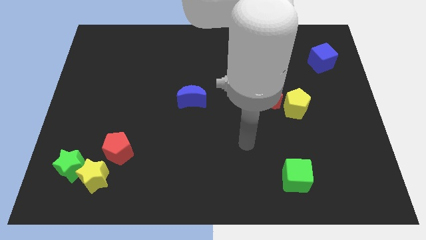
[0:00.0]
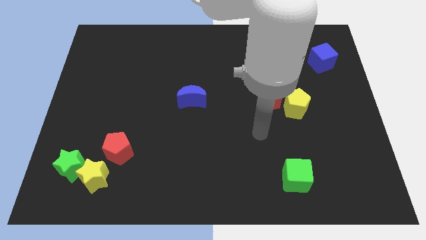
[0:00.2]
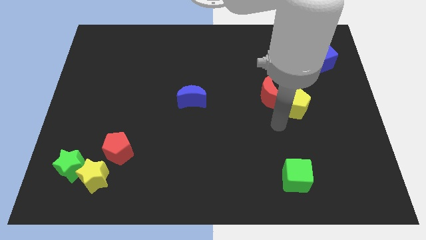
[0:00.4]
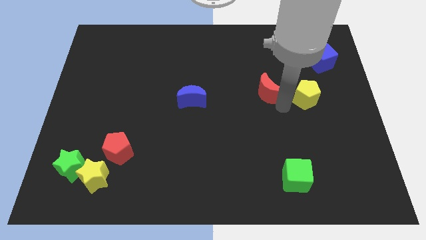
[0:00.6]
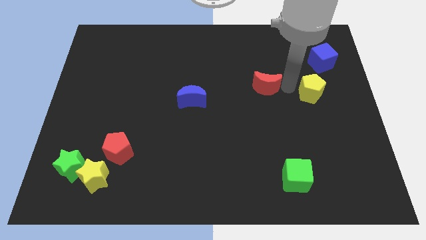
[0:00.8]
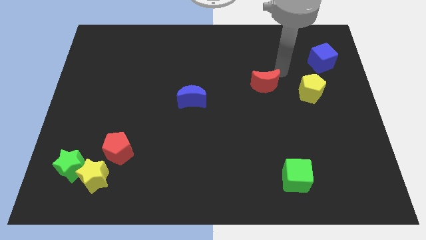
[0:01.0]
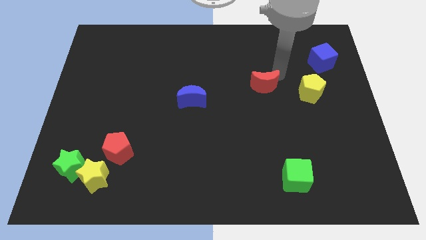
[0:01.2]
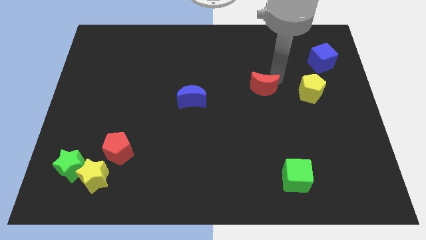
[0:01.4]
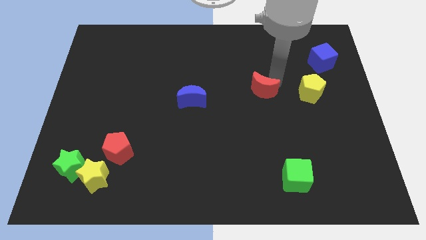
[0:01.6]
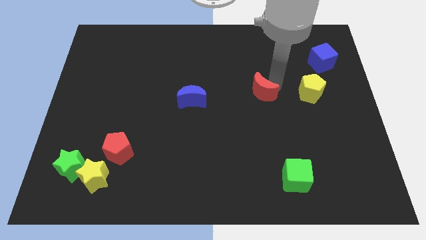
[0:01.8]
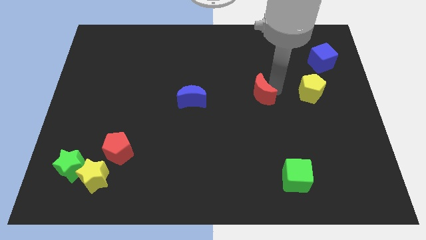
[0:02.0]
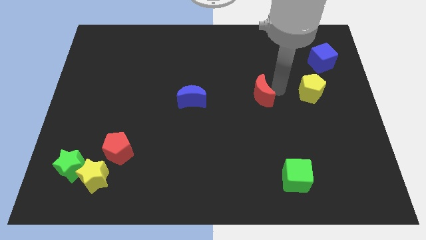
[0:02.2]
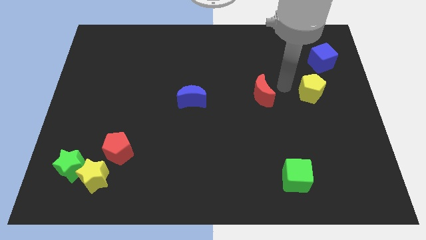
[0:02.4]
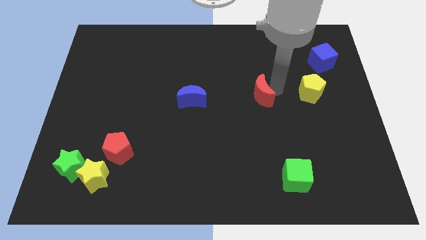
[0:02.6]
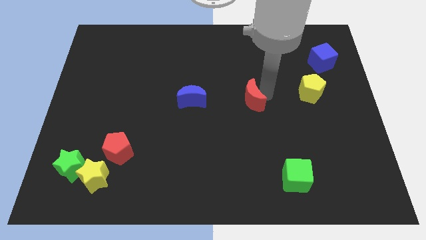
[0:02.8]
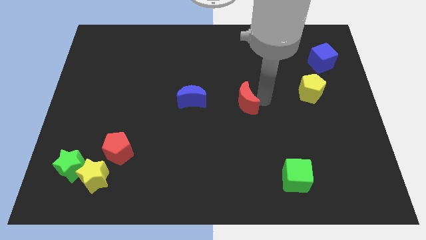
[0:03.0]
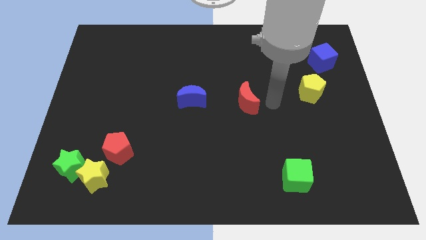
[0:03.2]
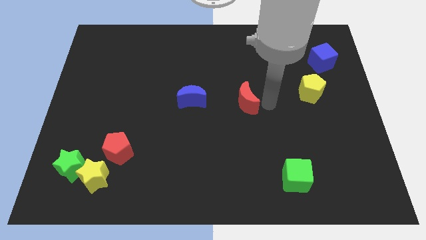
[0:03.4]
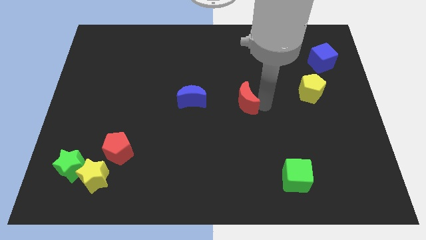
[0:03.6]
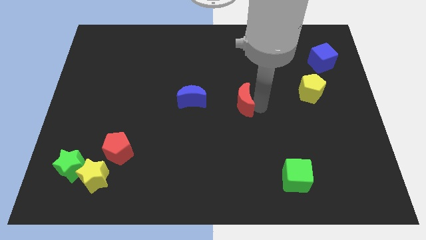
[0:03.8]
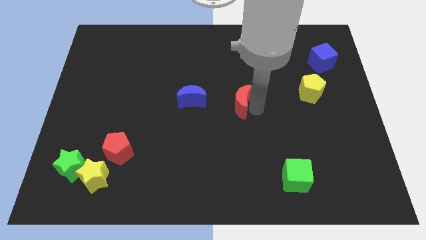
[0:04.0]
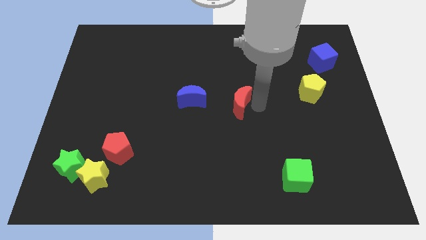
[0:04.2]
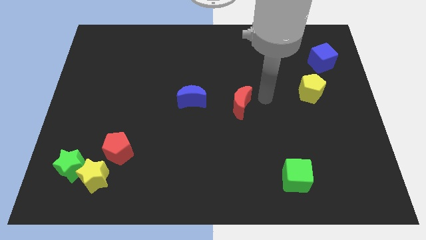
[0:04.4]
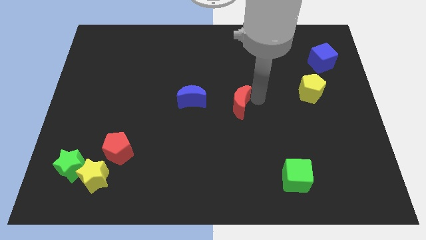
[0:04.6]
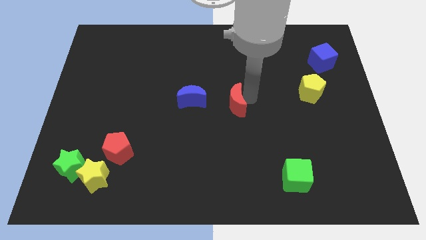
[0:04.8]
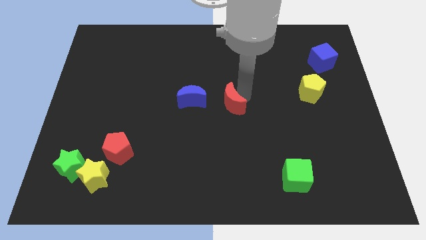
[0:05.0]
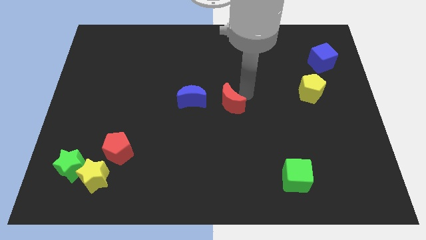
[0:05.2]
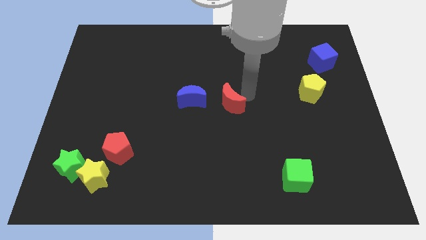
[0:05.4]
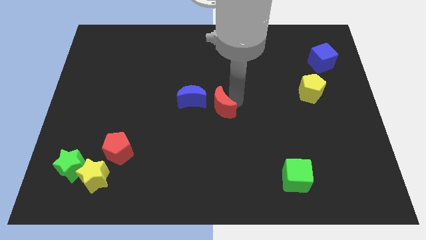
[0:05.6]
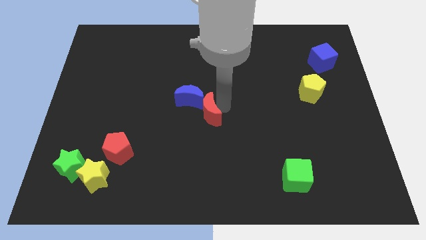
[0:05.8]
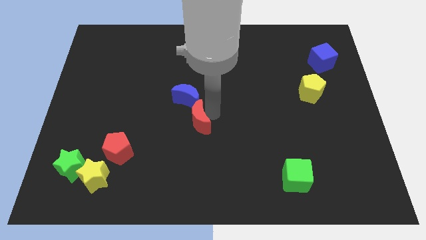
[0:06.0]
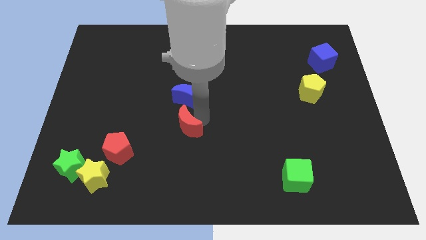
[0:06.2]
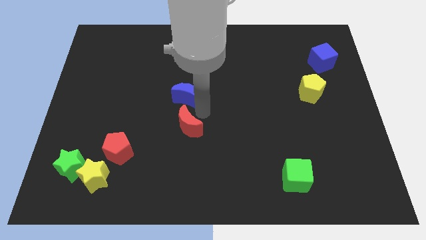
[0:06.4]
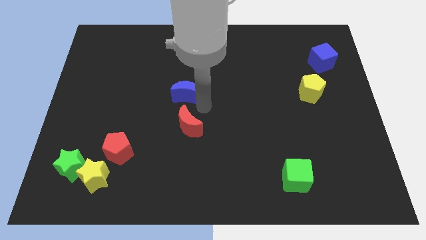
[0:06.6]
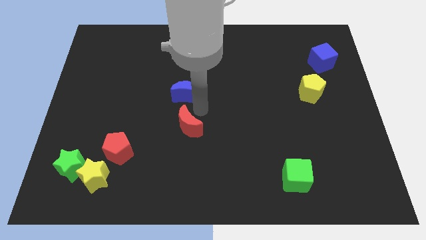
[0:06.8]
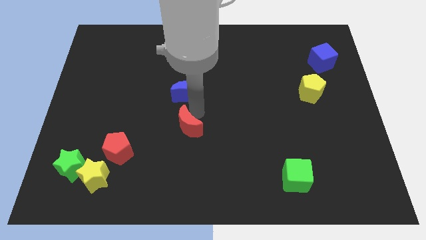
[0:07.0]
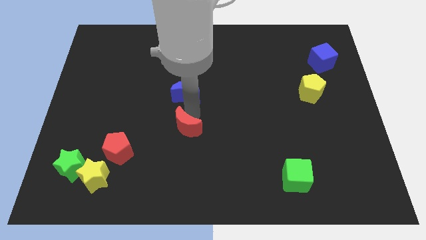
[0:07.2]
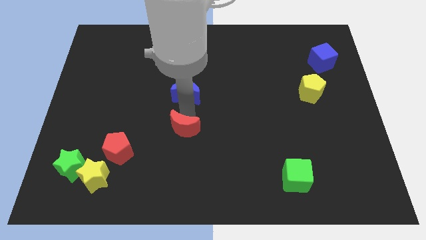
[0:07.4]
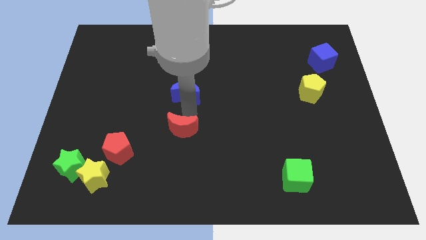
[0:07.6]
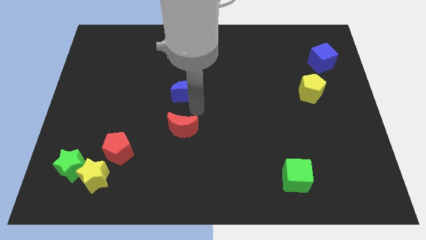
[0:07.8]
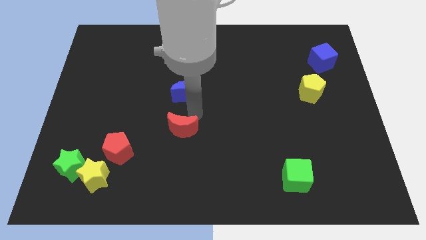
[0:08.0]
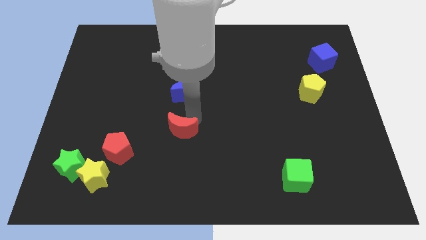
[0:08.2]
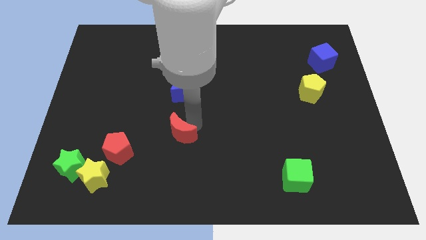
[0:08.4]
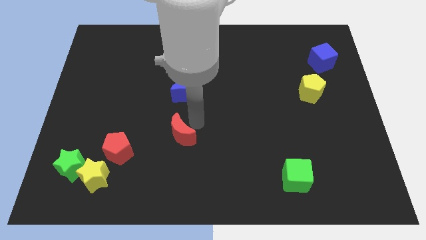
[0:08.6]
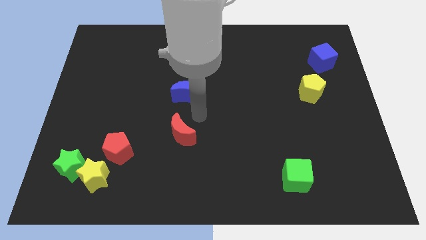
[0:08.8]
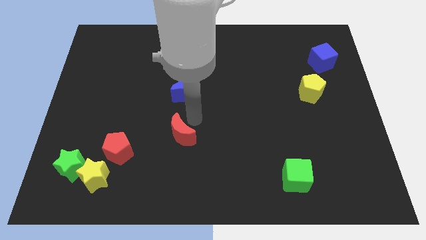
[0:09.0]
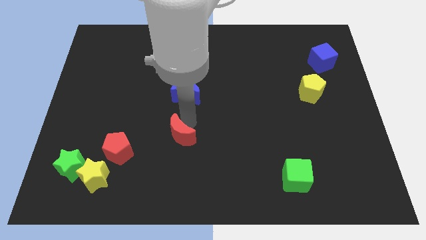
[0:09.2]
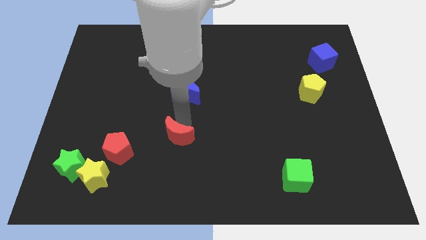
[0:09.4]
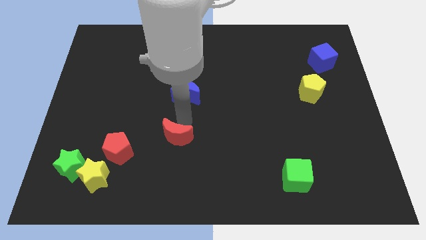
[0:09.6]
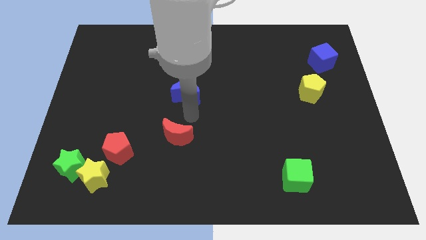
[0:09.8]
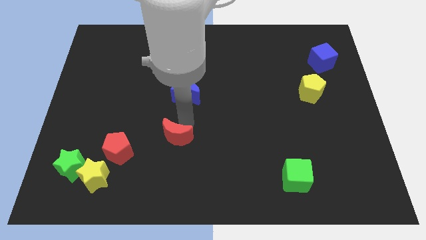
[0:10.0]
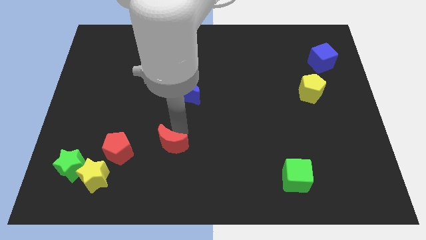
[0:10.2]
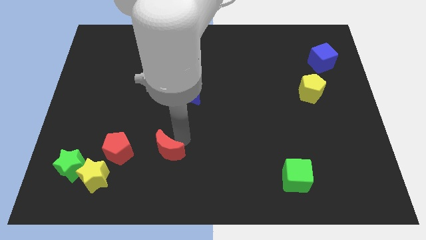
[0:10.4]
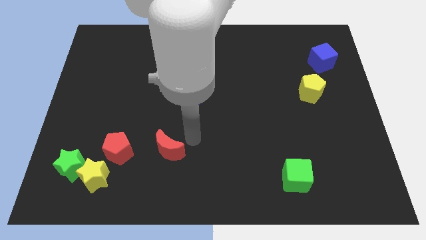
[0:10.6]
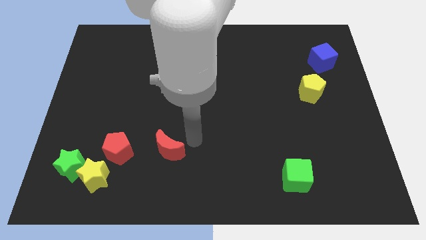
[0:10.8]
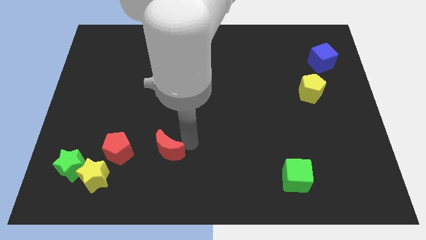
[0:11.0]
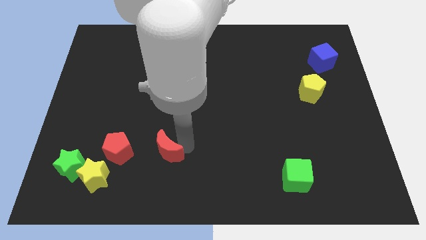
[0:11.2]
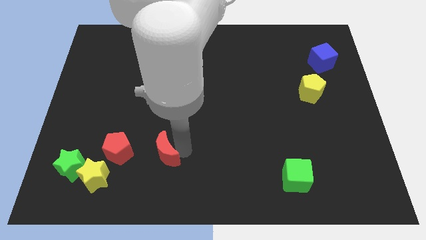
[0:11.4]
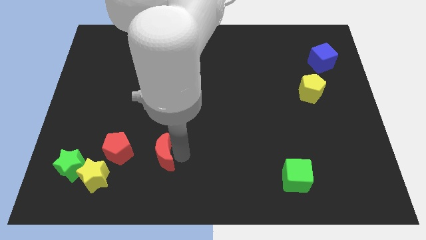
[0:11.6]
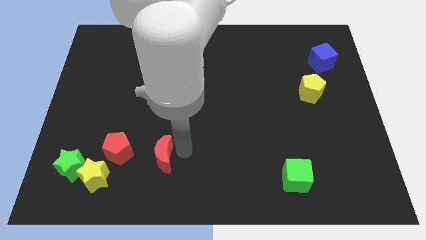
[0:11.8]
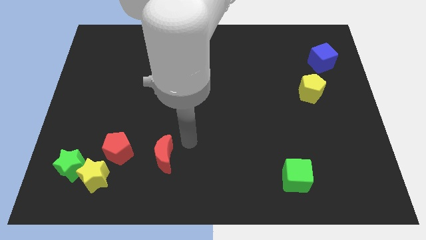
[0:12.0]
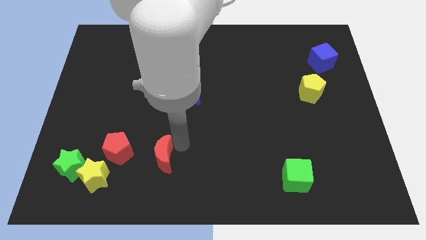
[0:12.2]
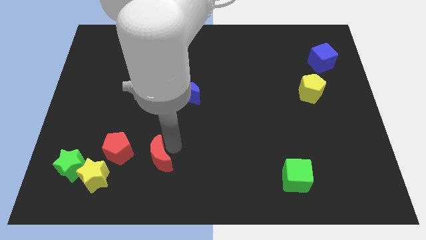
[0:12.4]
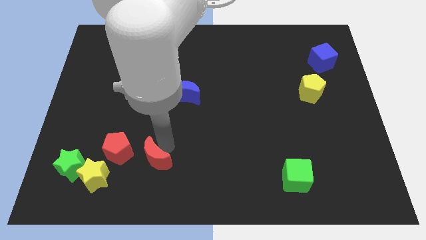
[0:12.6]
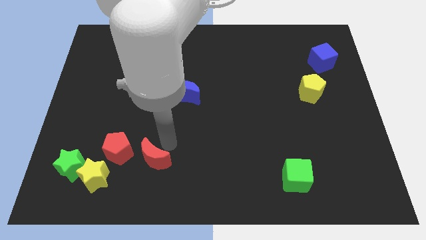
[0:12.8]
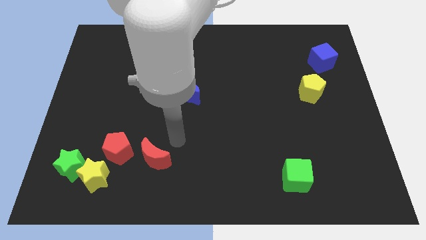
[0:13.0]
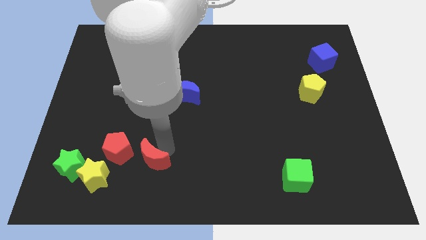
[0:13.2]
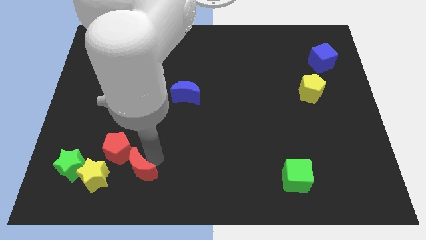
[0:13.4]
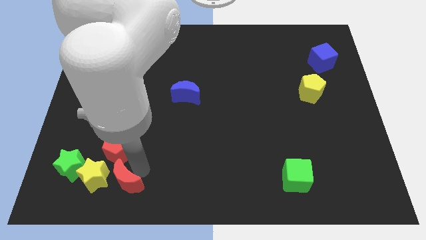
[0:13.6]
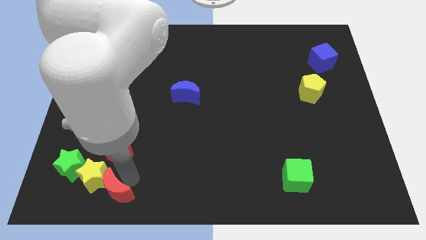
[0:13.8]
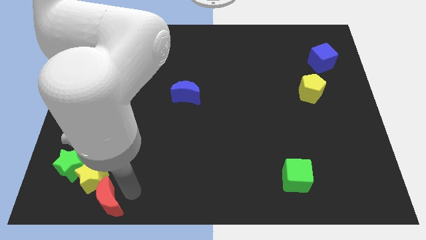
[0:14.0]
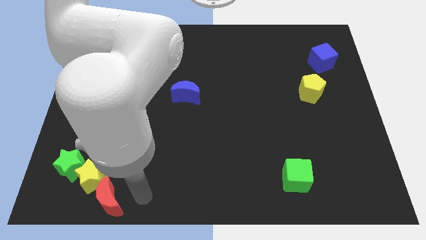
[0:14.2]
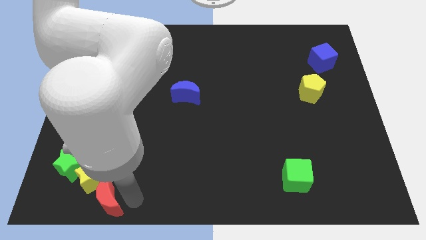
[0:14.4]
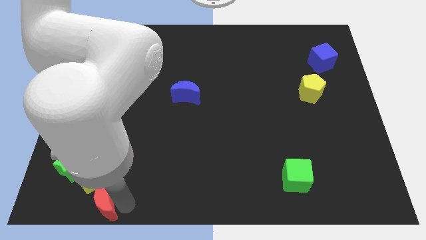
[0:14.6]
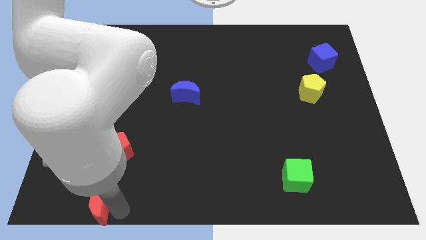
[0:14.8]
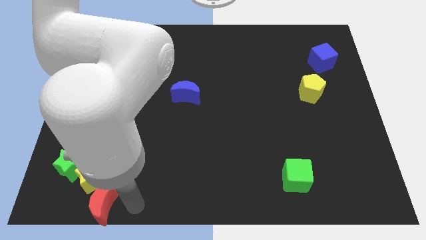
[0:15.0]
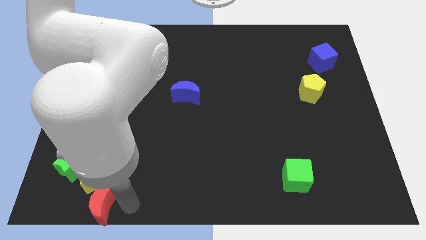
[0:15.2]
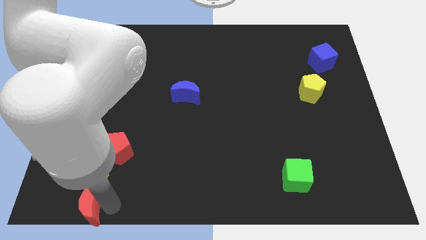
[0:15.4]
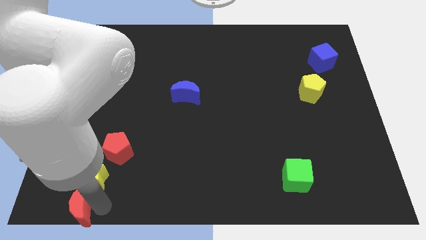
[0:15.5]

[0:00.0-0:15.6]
slide the red moon to the bottom left corner
